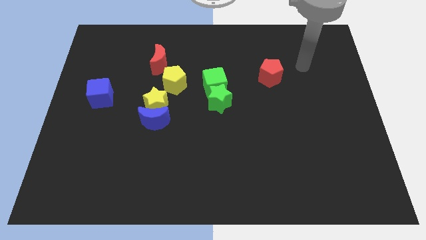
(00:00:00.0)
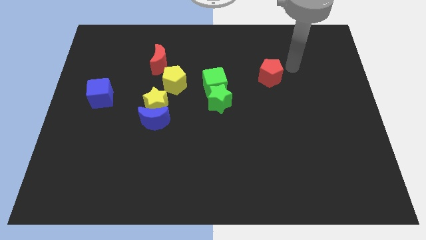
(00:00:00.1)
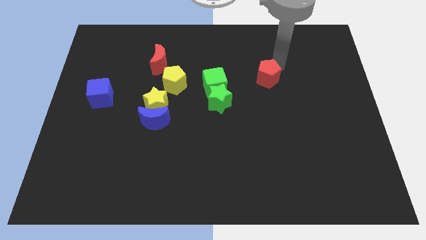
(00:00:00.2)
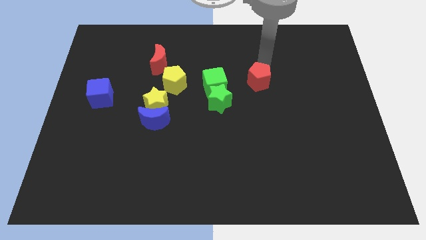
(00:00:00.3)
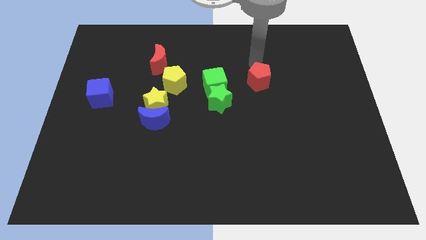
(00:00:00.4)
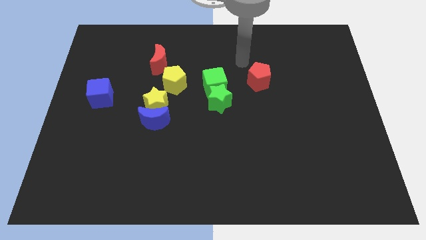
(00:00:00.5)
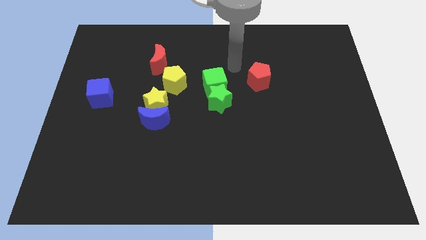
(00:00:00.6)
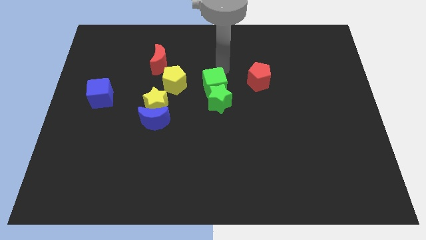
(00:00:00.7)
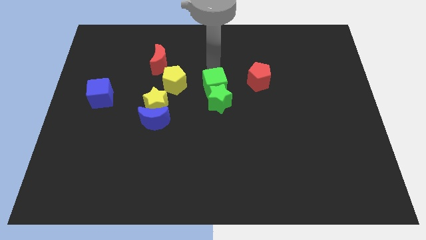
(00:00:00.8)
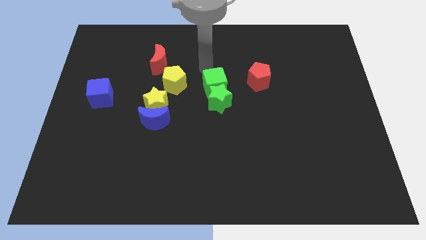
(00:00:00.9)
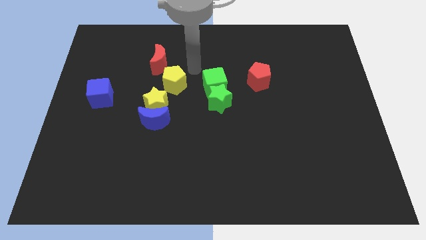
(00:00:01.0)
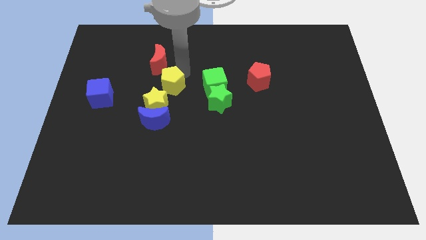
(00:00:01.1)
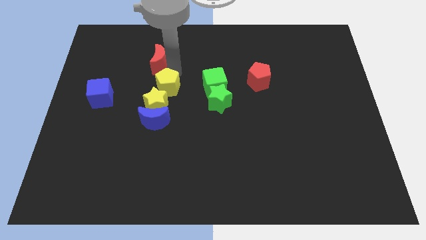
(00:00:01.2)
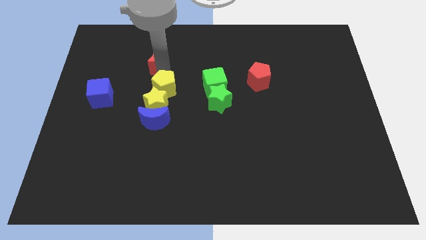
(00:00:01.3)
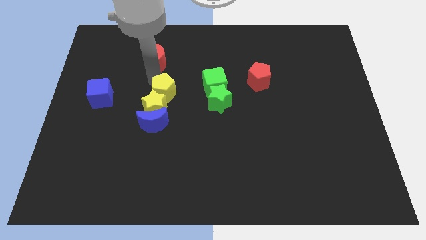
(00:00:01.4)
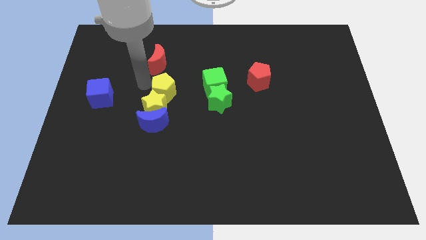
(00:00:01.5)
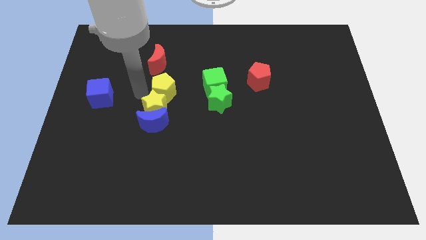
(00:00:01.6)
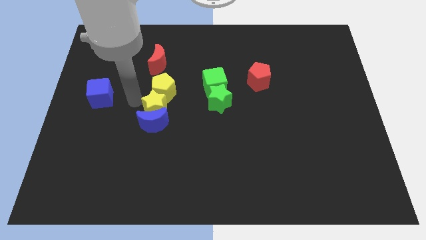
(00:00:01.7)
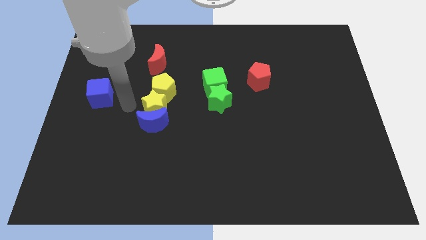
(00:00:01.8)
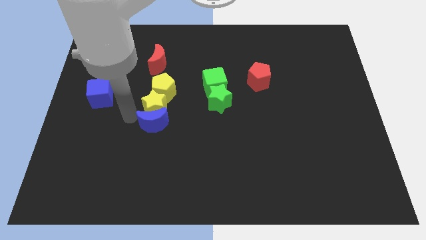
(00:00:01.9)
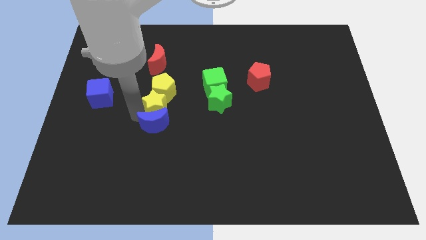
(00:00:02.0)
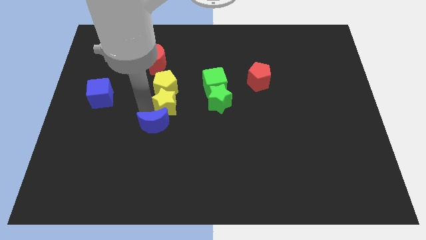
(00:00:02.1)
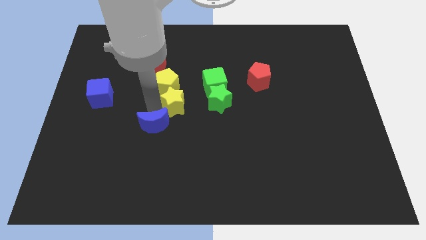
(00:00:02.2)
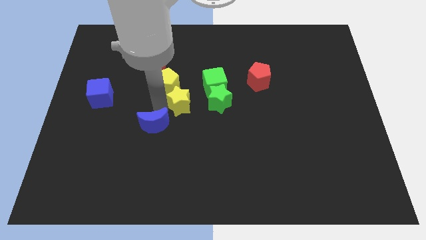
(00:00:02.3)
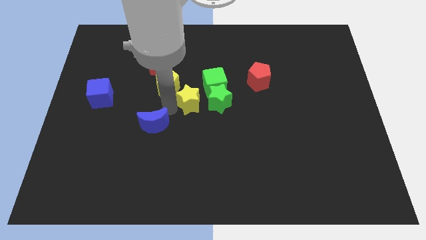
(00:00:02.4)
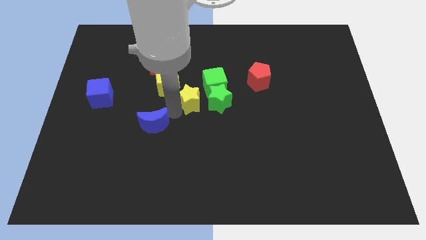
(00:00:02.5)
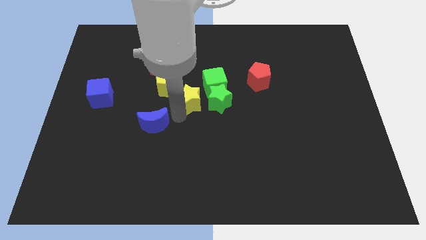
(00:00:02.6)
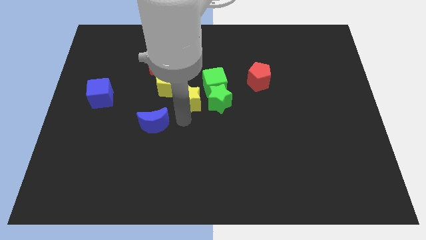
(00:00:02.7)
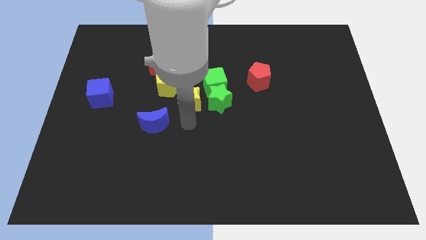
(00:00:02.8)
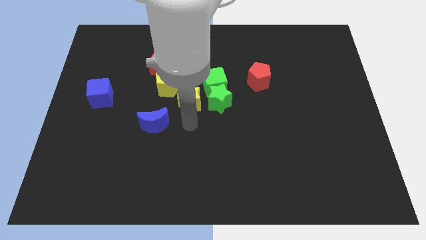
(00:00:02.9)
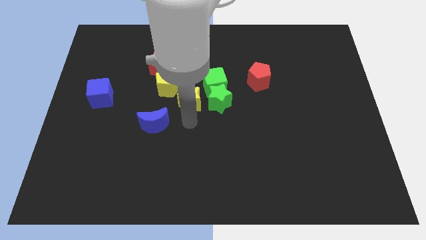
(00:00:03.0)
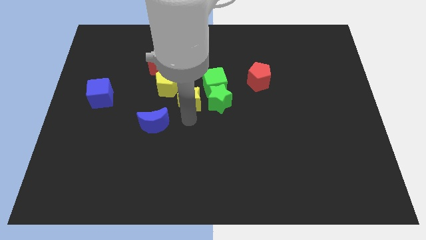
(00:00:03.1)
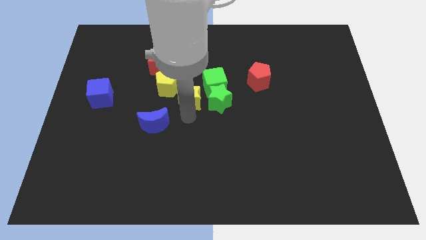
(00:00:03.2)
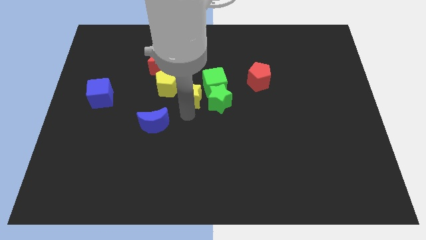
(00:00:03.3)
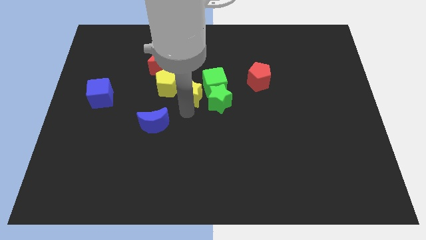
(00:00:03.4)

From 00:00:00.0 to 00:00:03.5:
slide the yellow star upwards and right a little

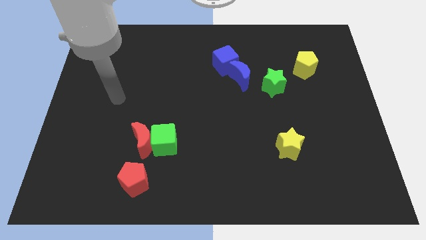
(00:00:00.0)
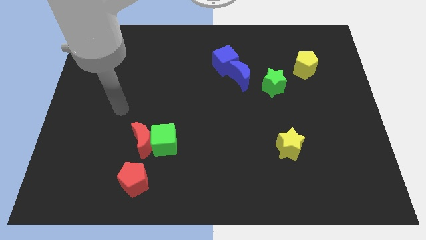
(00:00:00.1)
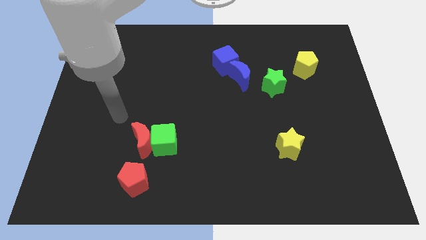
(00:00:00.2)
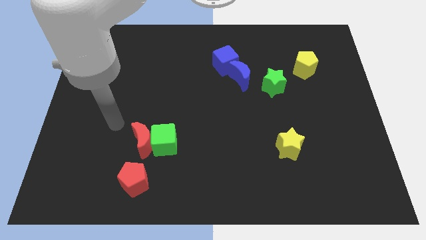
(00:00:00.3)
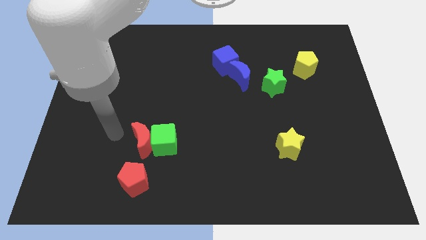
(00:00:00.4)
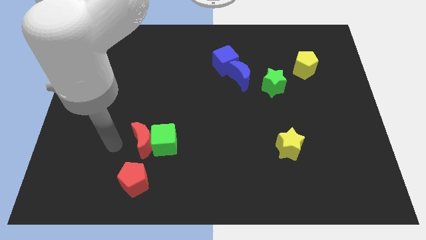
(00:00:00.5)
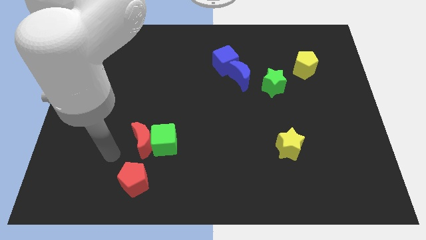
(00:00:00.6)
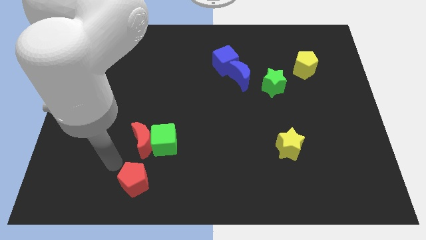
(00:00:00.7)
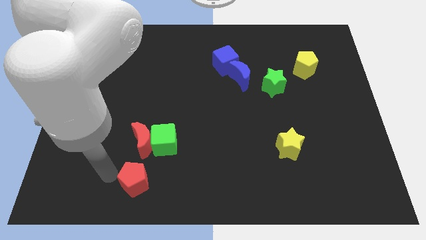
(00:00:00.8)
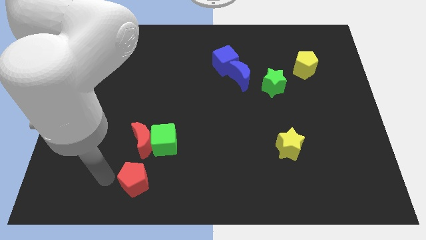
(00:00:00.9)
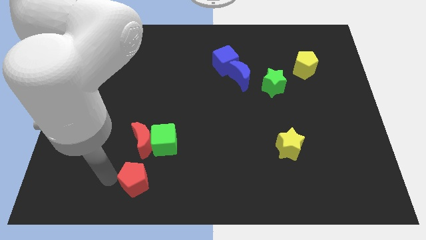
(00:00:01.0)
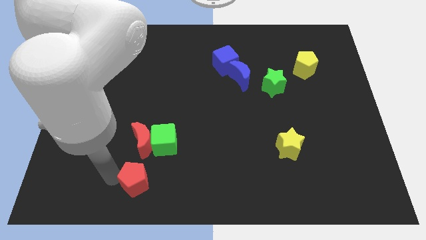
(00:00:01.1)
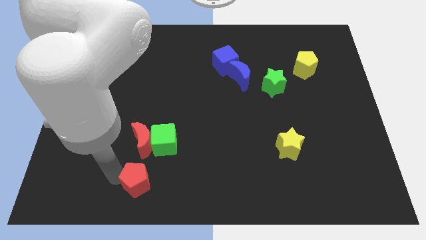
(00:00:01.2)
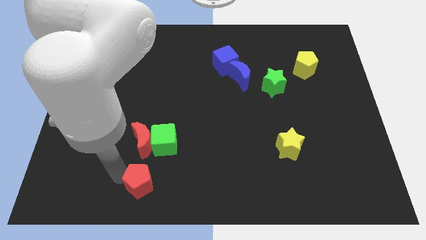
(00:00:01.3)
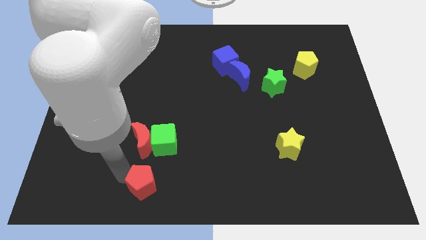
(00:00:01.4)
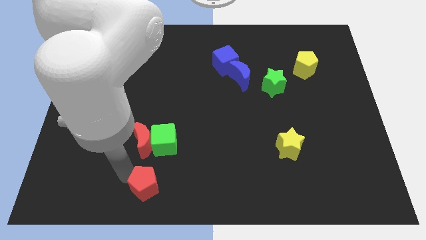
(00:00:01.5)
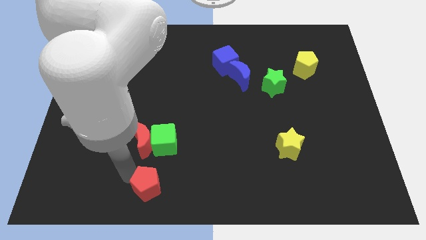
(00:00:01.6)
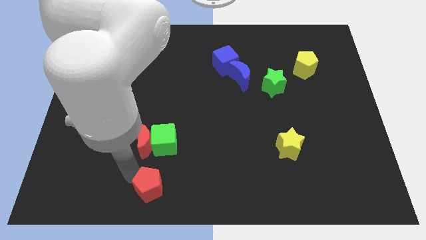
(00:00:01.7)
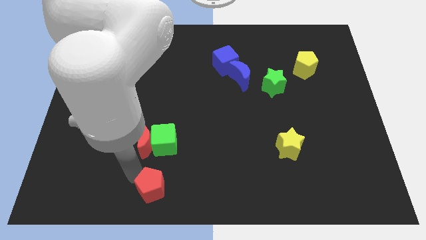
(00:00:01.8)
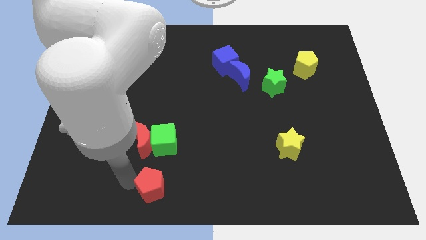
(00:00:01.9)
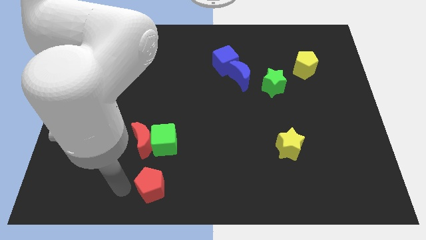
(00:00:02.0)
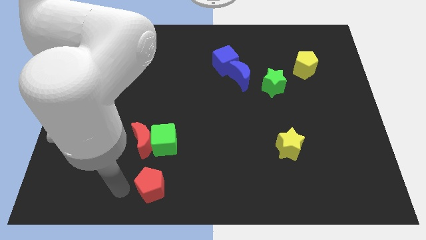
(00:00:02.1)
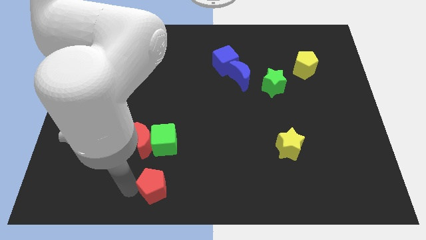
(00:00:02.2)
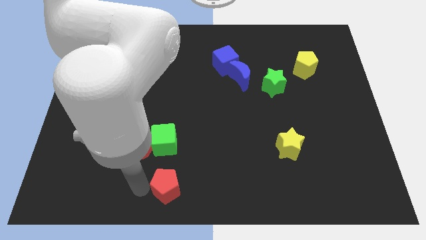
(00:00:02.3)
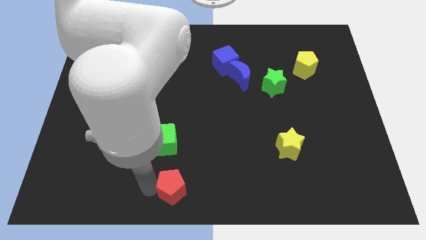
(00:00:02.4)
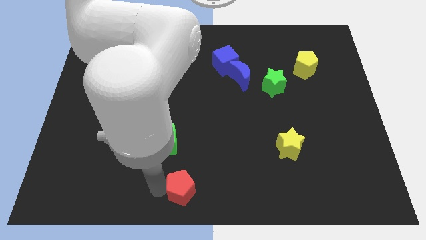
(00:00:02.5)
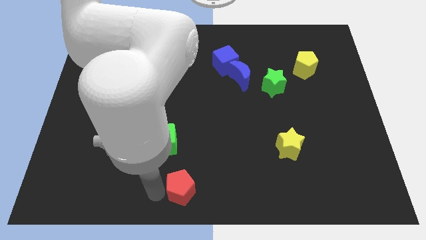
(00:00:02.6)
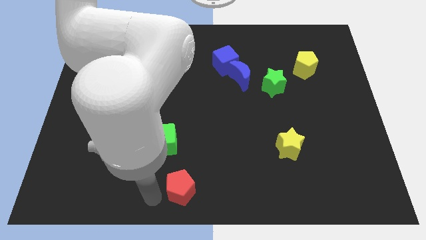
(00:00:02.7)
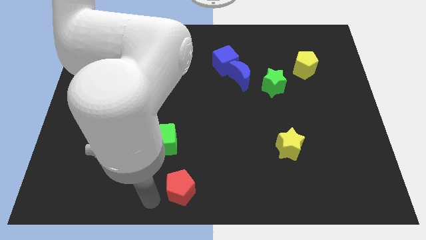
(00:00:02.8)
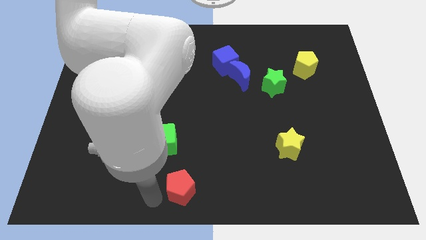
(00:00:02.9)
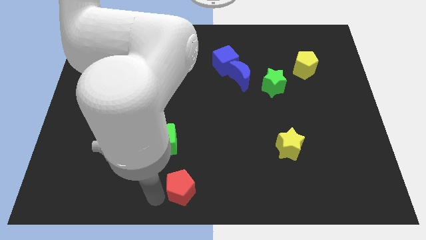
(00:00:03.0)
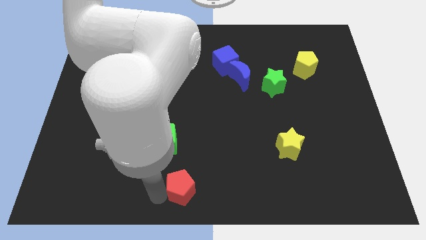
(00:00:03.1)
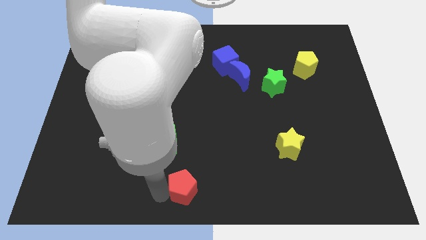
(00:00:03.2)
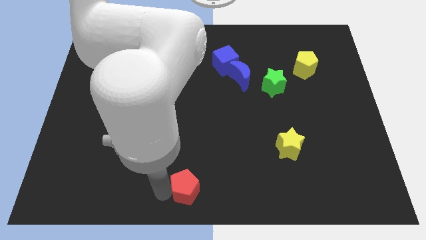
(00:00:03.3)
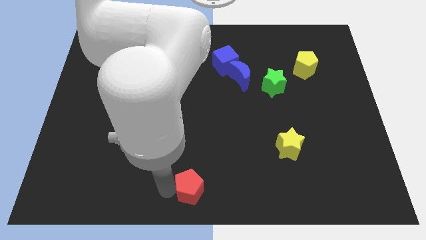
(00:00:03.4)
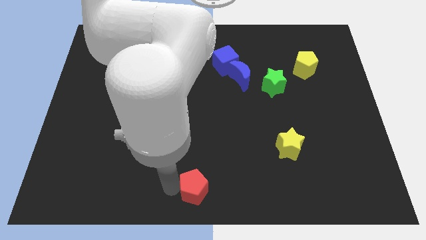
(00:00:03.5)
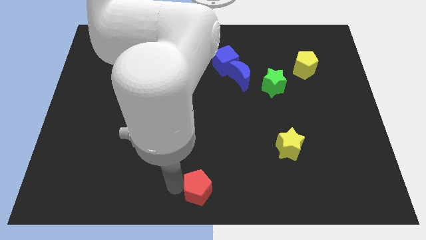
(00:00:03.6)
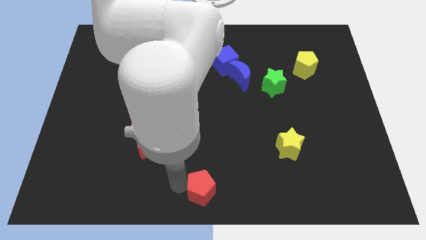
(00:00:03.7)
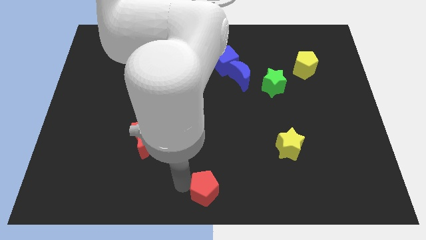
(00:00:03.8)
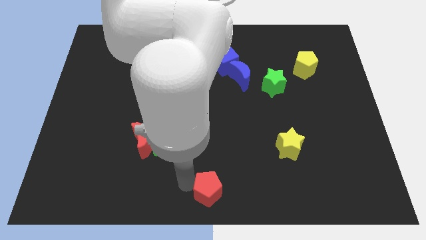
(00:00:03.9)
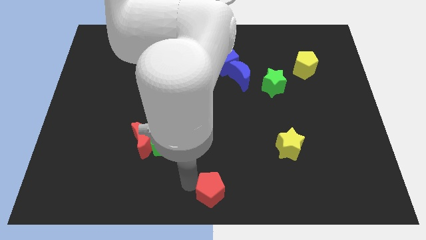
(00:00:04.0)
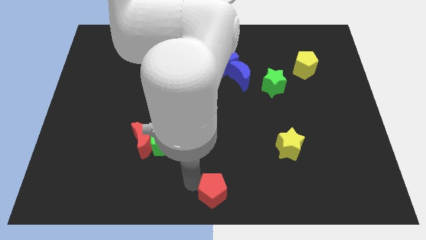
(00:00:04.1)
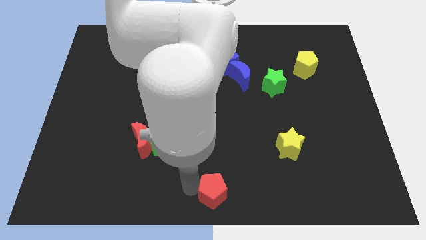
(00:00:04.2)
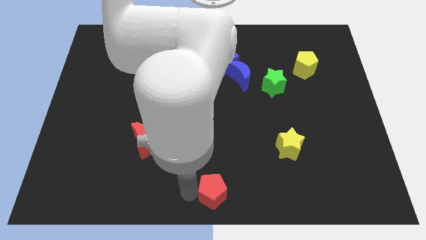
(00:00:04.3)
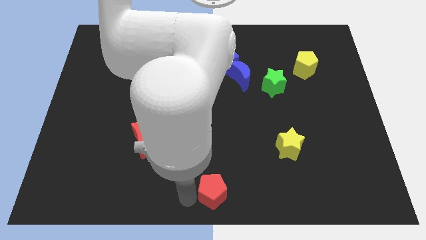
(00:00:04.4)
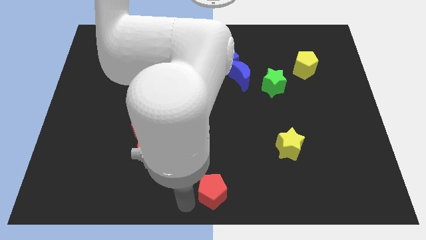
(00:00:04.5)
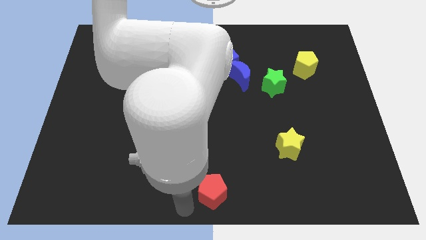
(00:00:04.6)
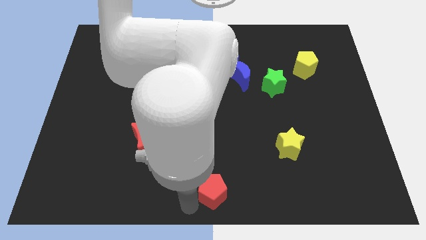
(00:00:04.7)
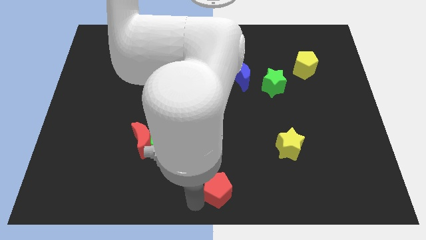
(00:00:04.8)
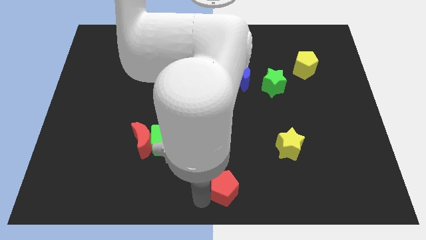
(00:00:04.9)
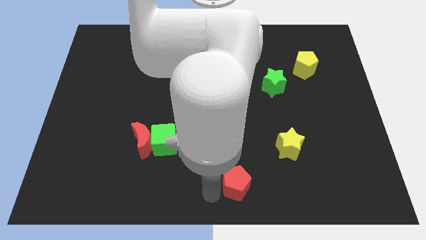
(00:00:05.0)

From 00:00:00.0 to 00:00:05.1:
move the red pentagon right
